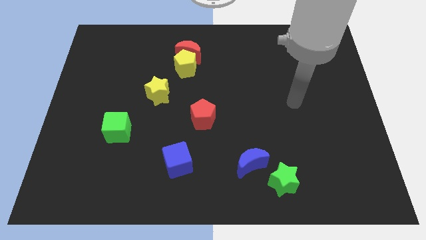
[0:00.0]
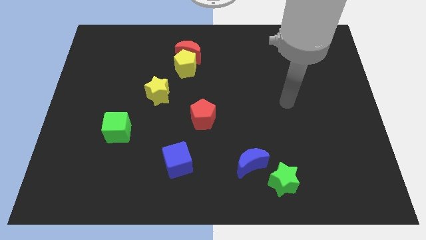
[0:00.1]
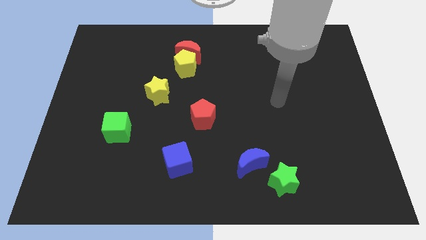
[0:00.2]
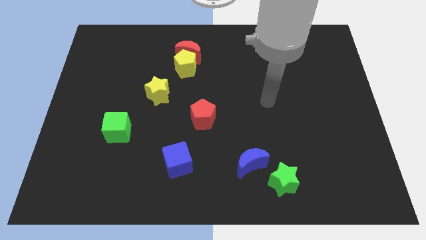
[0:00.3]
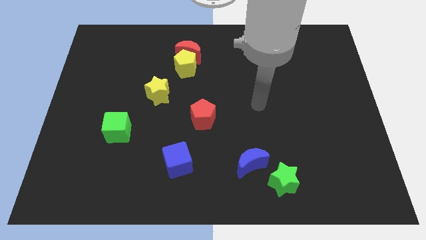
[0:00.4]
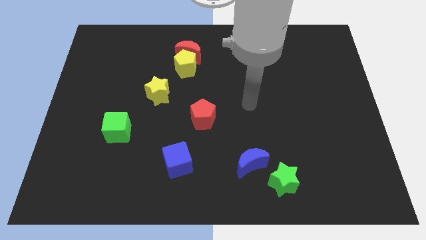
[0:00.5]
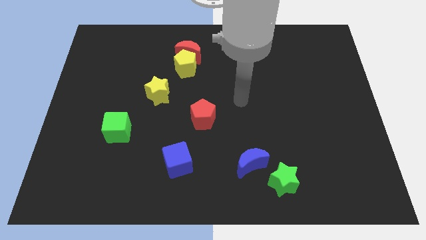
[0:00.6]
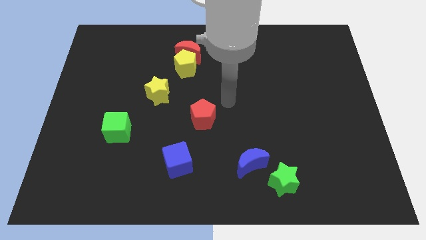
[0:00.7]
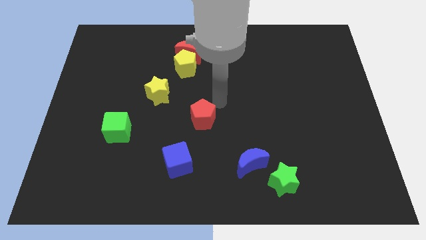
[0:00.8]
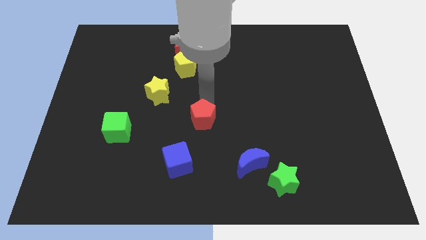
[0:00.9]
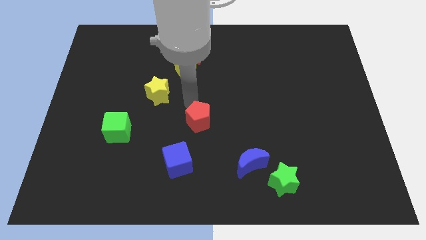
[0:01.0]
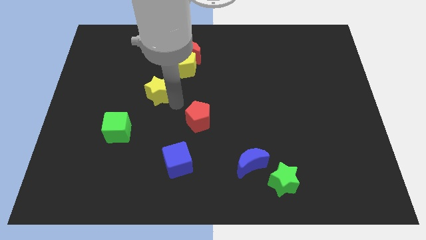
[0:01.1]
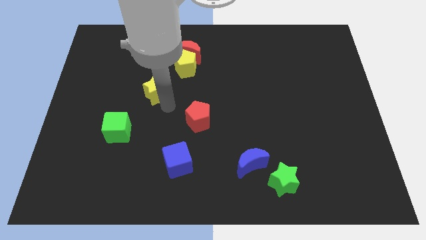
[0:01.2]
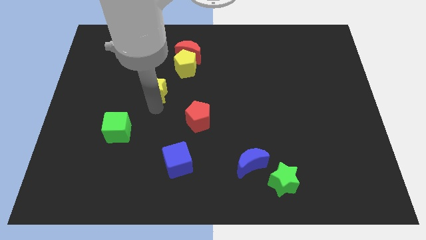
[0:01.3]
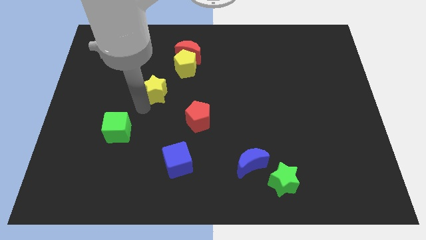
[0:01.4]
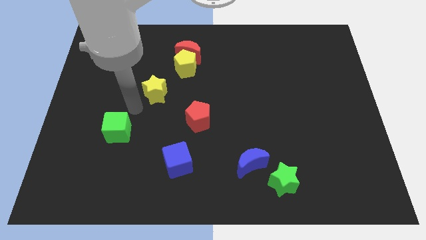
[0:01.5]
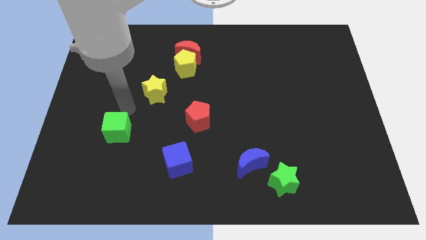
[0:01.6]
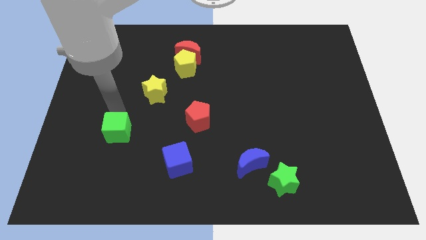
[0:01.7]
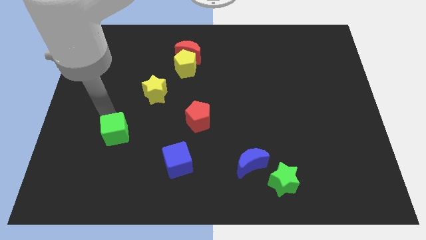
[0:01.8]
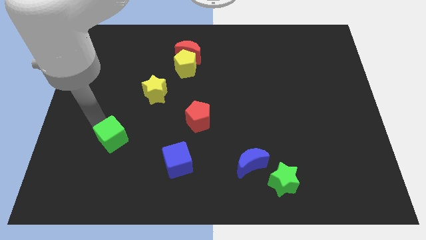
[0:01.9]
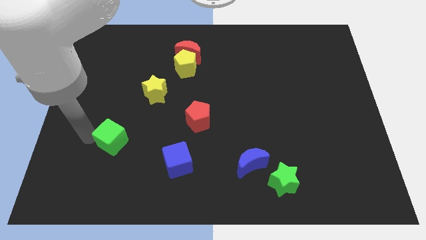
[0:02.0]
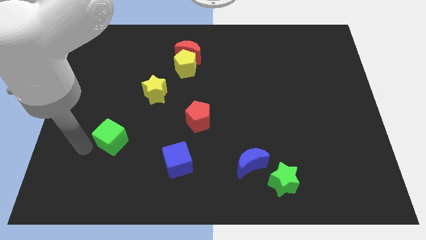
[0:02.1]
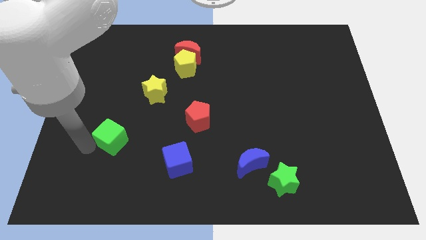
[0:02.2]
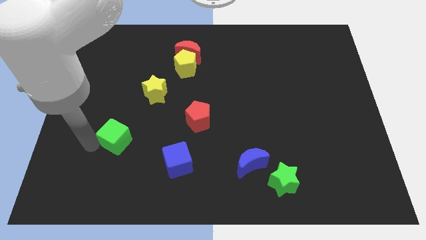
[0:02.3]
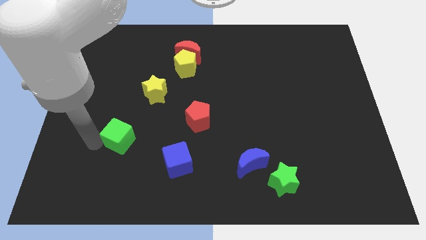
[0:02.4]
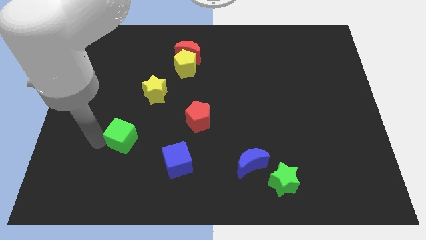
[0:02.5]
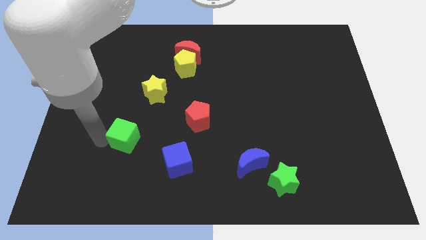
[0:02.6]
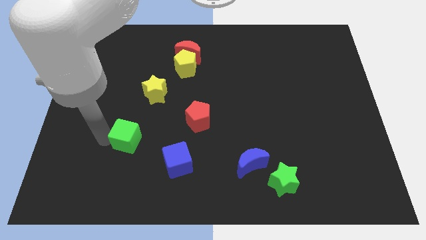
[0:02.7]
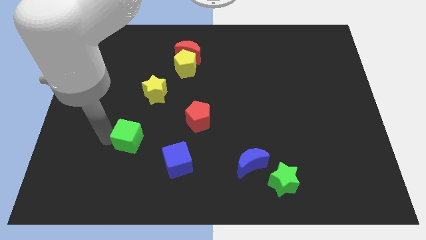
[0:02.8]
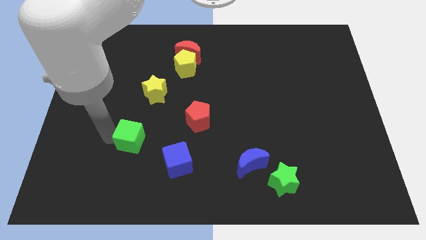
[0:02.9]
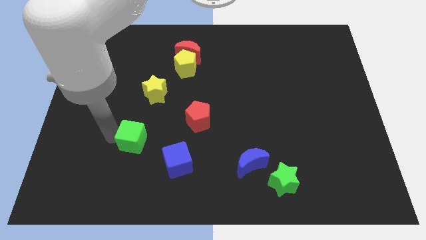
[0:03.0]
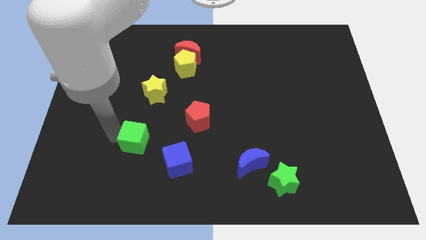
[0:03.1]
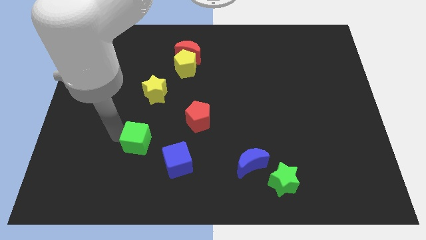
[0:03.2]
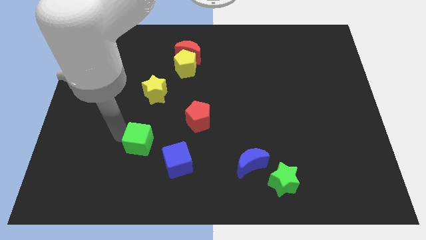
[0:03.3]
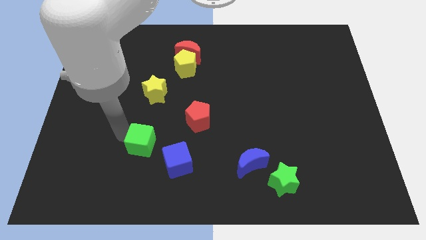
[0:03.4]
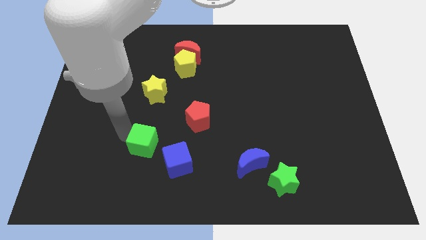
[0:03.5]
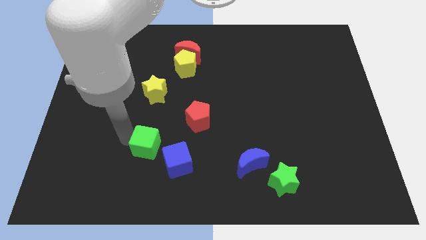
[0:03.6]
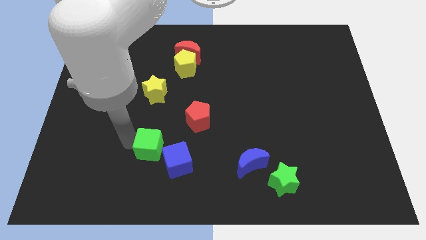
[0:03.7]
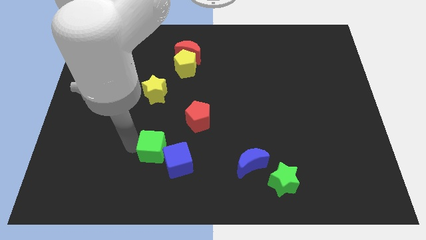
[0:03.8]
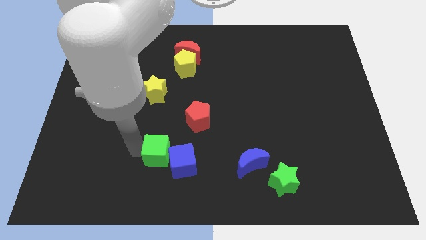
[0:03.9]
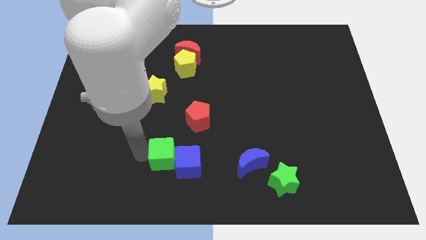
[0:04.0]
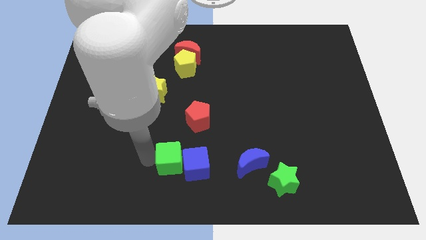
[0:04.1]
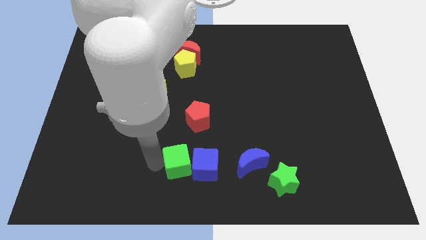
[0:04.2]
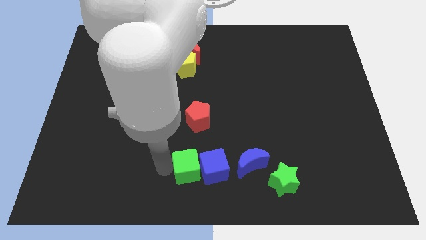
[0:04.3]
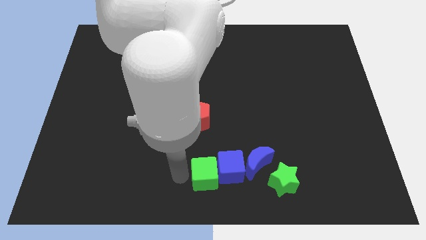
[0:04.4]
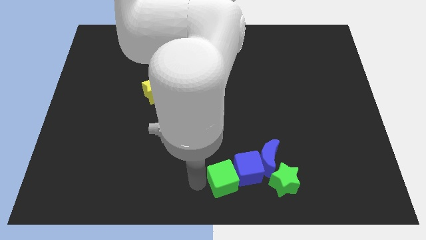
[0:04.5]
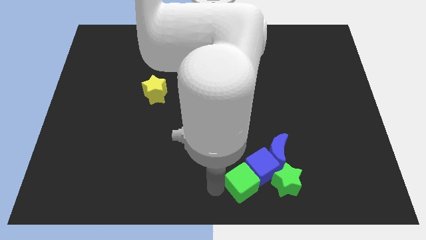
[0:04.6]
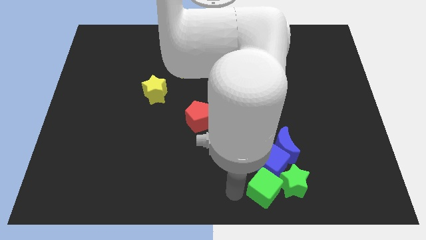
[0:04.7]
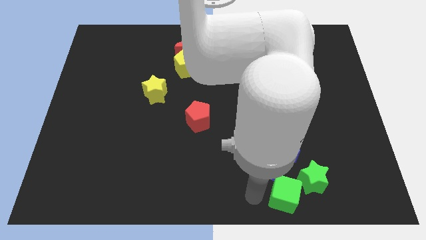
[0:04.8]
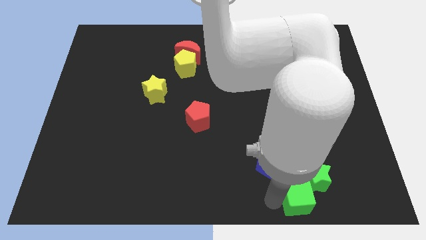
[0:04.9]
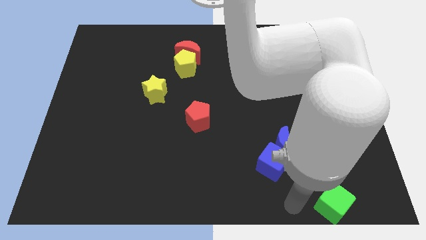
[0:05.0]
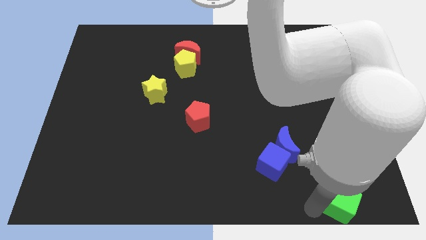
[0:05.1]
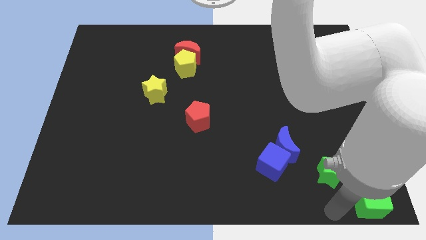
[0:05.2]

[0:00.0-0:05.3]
put the green cube to the bottom right corner
